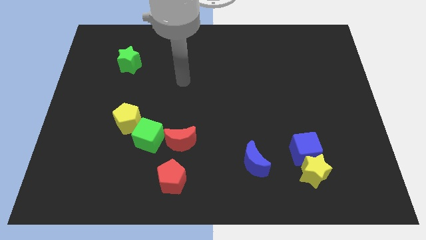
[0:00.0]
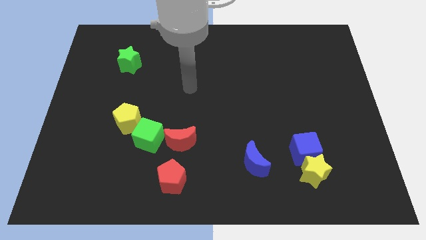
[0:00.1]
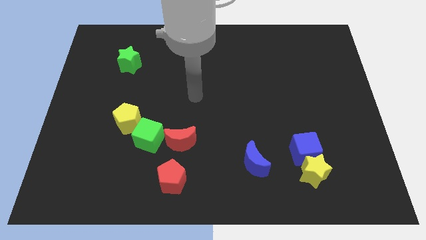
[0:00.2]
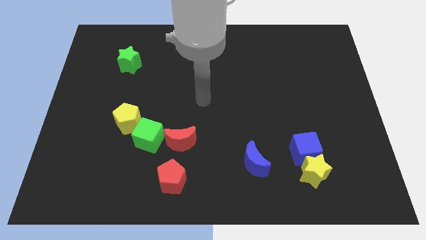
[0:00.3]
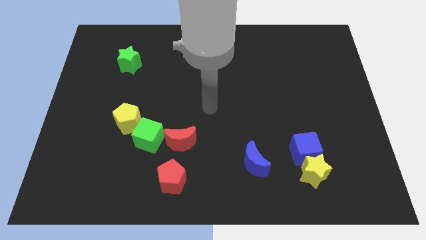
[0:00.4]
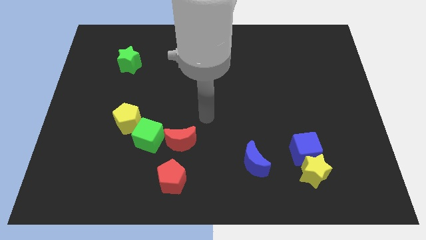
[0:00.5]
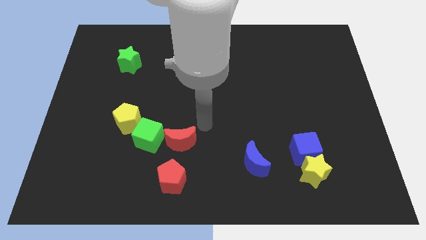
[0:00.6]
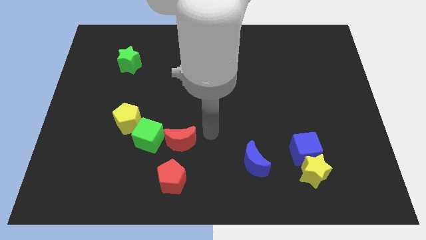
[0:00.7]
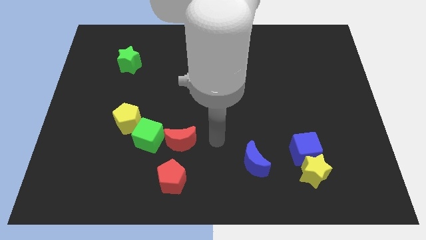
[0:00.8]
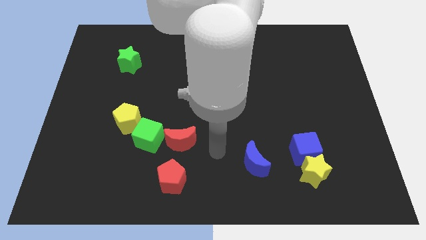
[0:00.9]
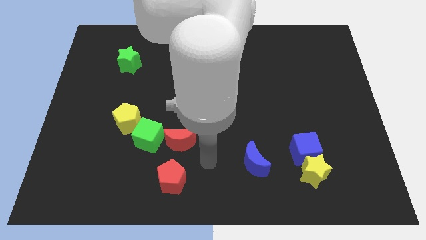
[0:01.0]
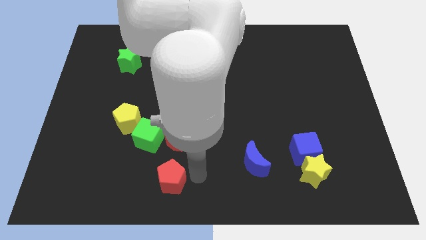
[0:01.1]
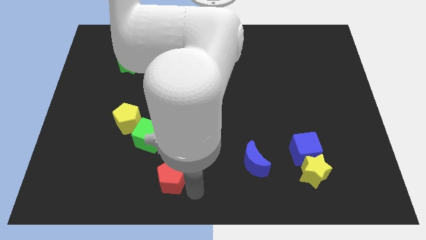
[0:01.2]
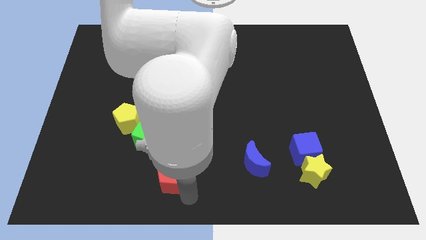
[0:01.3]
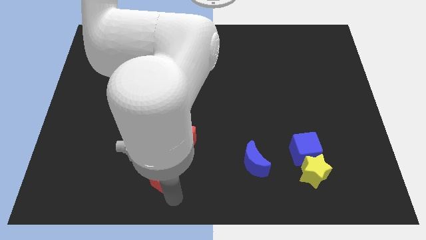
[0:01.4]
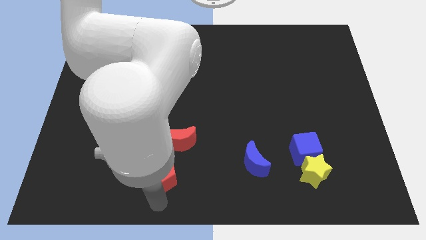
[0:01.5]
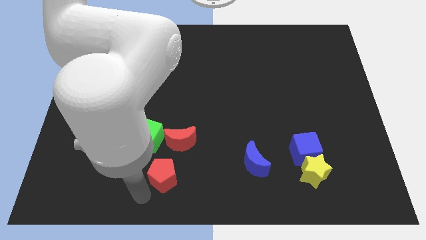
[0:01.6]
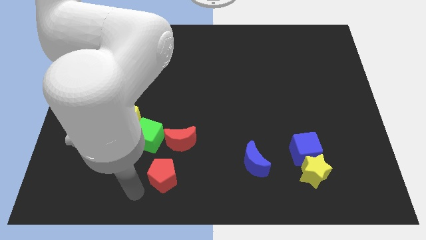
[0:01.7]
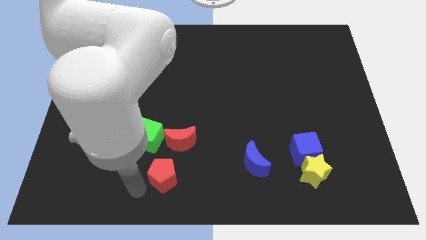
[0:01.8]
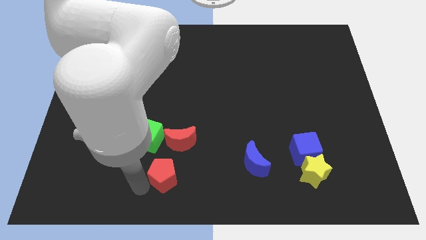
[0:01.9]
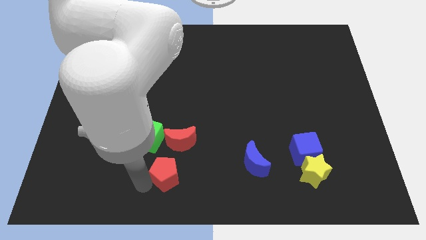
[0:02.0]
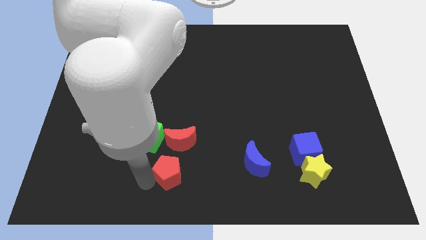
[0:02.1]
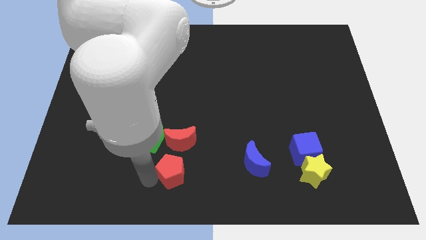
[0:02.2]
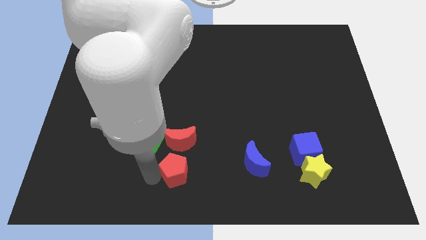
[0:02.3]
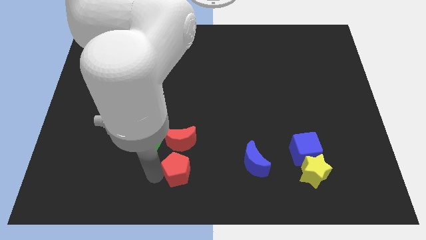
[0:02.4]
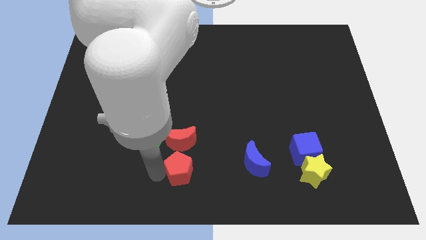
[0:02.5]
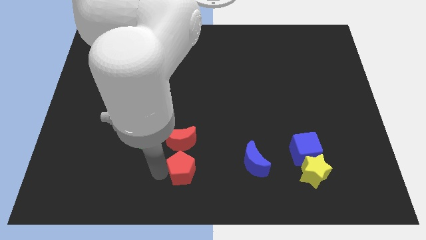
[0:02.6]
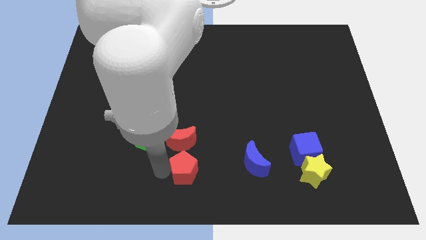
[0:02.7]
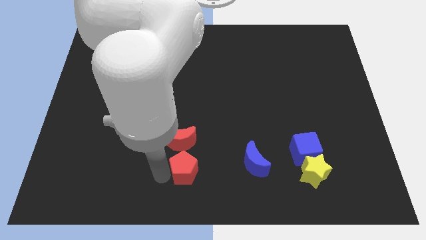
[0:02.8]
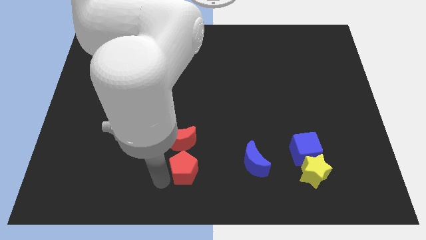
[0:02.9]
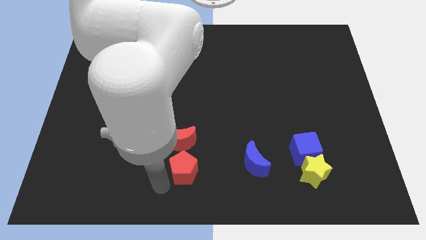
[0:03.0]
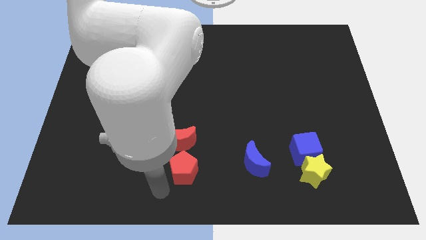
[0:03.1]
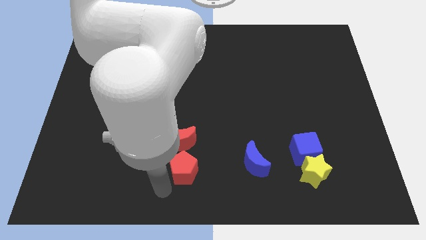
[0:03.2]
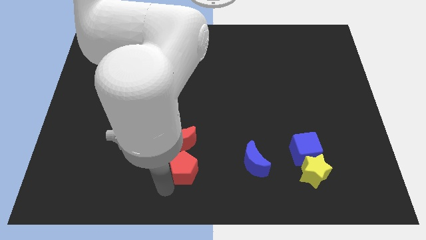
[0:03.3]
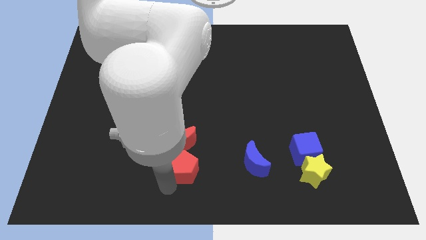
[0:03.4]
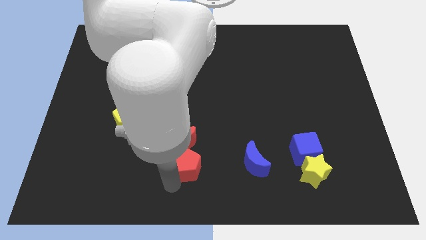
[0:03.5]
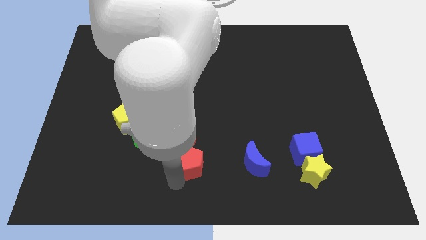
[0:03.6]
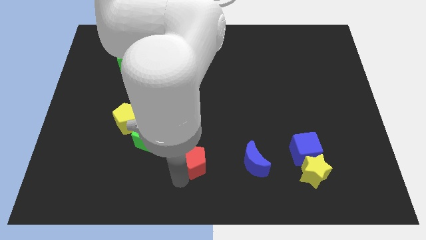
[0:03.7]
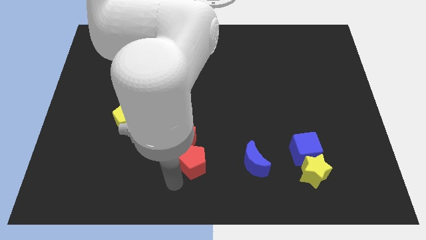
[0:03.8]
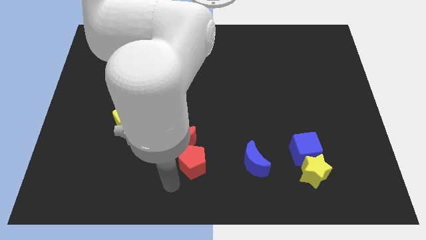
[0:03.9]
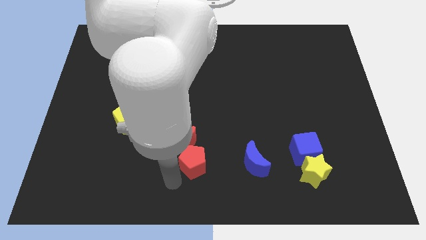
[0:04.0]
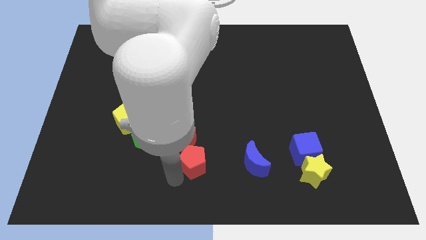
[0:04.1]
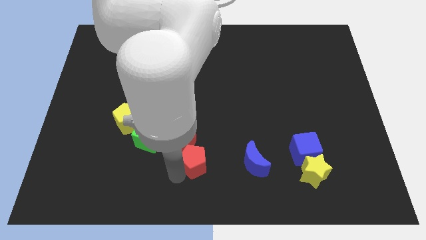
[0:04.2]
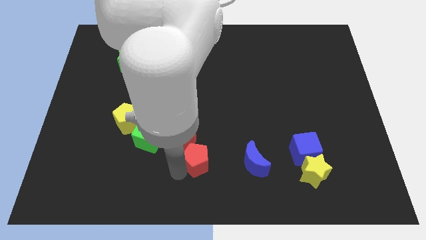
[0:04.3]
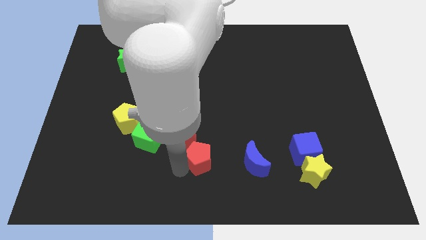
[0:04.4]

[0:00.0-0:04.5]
move the red pentagon up and to the right diagonally a bit

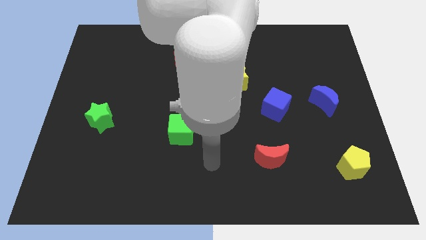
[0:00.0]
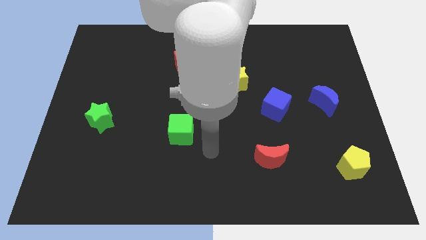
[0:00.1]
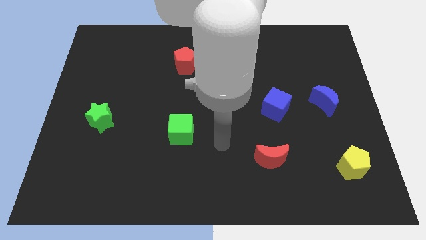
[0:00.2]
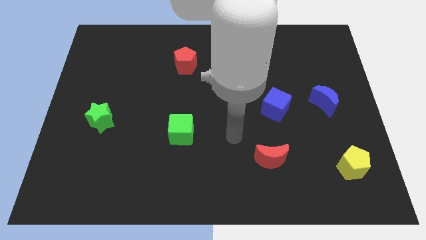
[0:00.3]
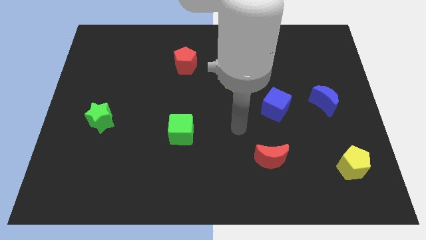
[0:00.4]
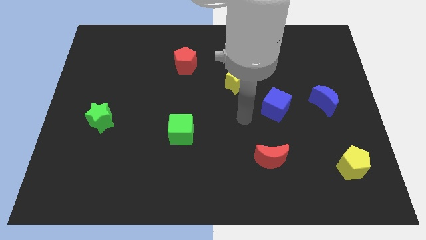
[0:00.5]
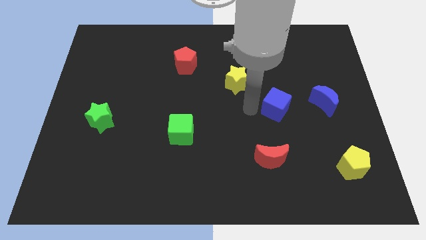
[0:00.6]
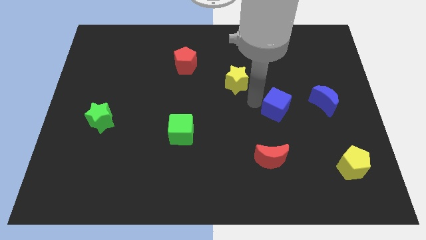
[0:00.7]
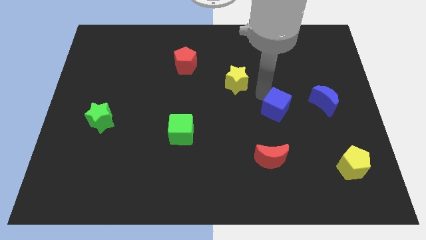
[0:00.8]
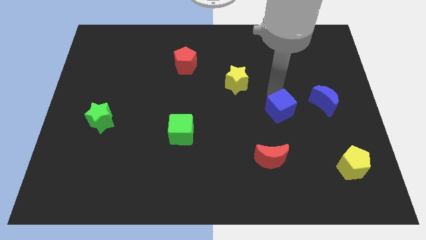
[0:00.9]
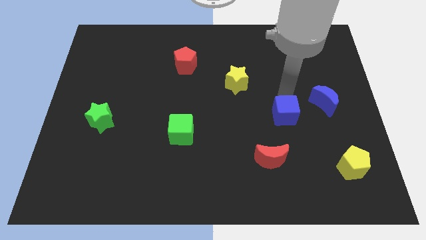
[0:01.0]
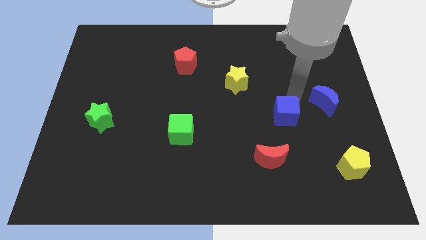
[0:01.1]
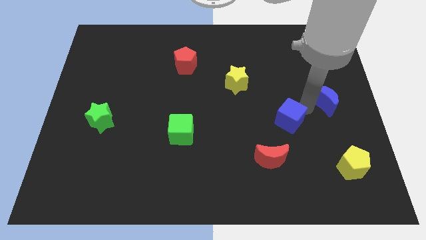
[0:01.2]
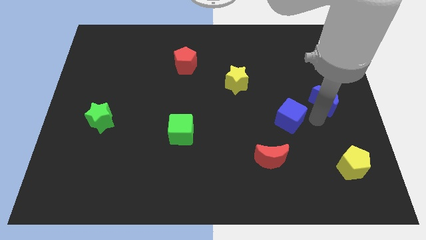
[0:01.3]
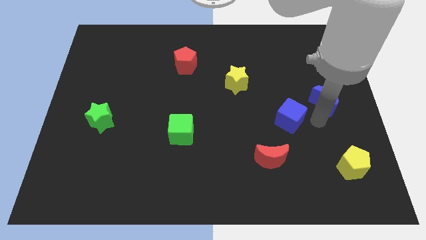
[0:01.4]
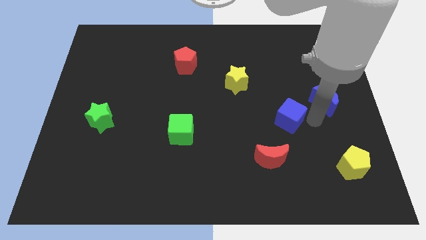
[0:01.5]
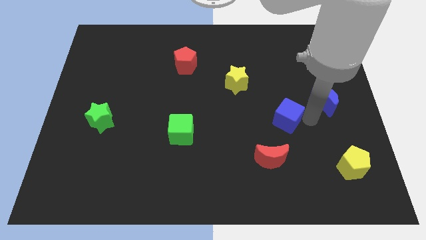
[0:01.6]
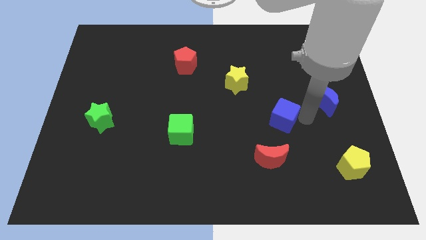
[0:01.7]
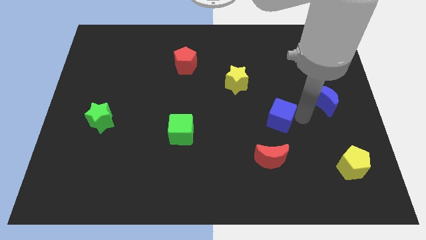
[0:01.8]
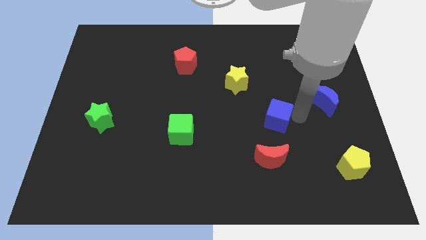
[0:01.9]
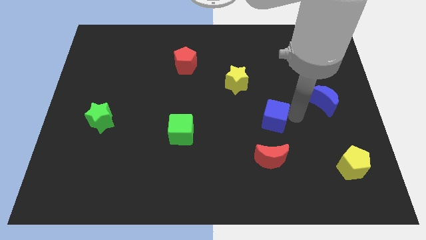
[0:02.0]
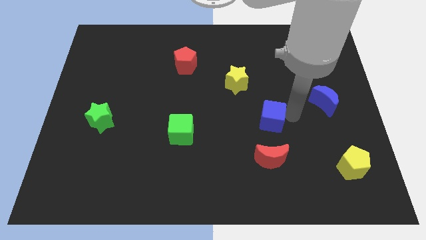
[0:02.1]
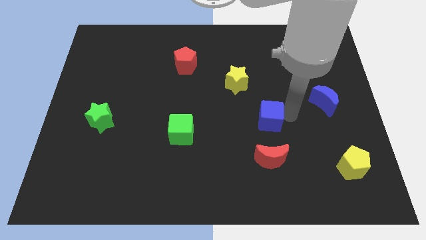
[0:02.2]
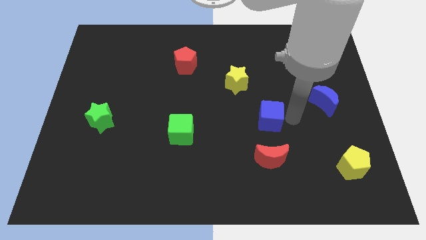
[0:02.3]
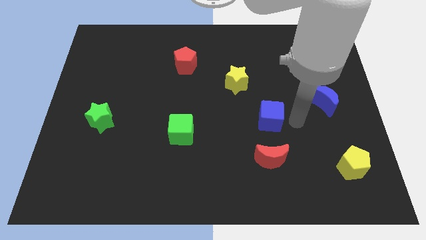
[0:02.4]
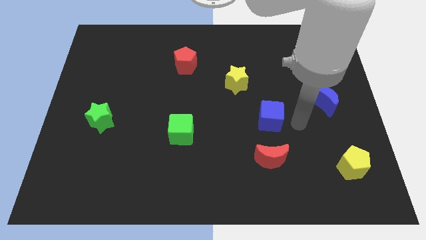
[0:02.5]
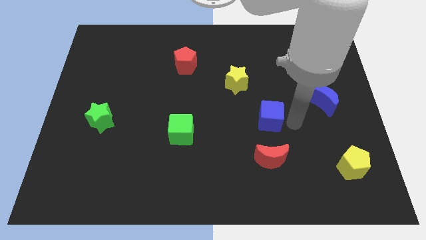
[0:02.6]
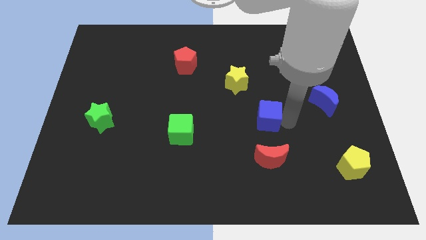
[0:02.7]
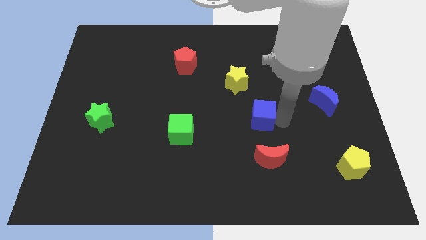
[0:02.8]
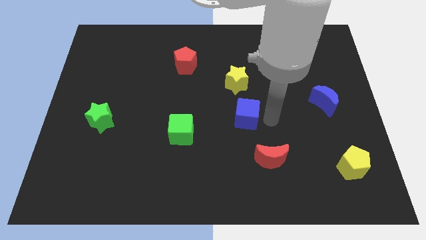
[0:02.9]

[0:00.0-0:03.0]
push the blue cube a bit left

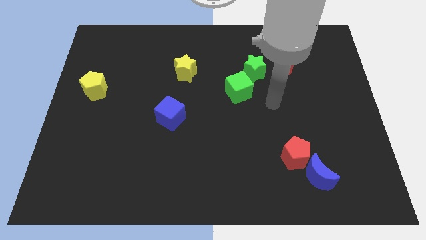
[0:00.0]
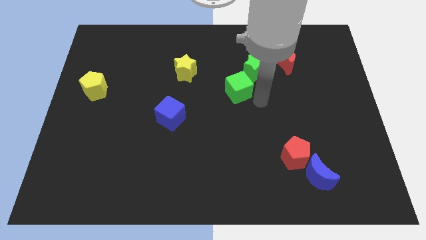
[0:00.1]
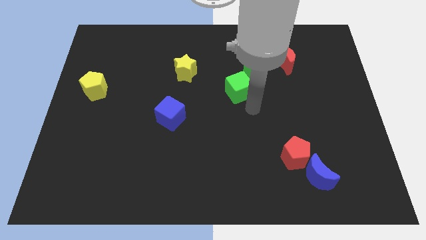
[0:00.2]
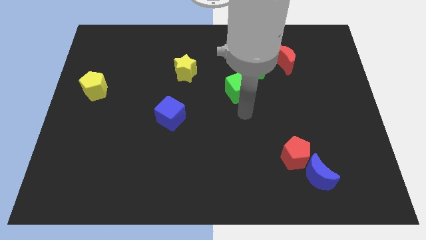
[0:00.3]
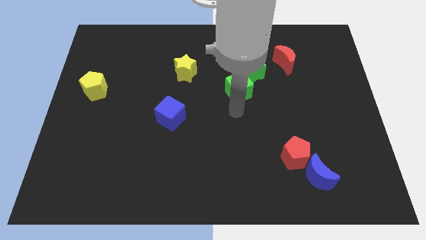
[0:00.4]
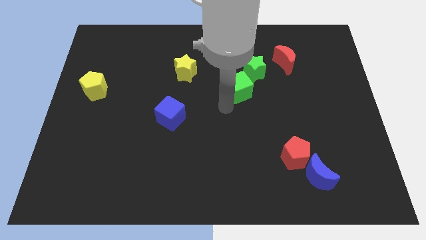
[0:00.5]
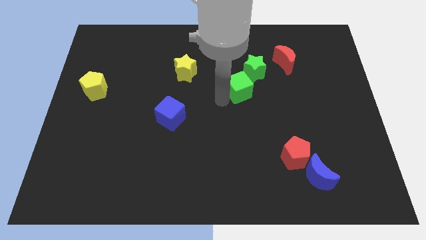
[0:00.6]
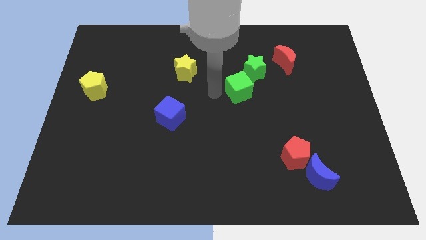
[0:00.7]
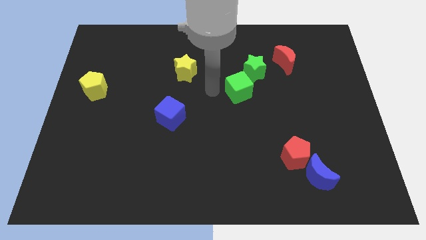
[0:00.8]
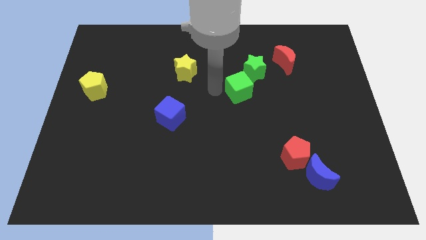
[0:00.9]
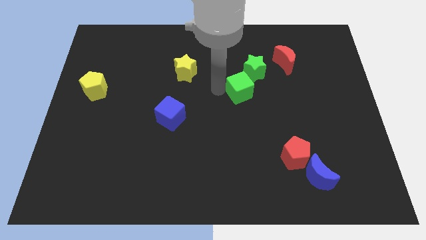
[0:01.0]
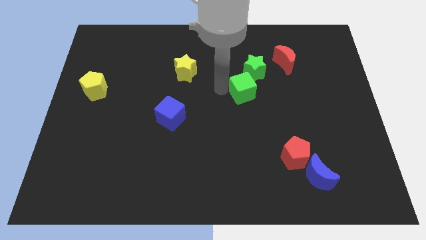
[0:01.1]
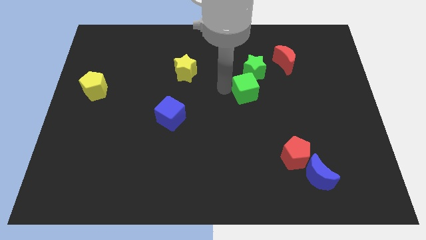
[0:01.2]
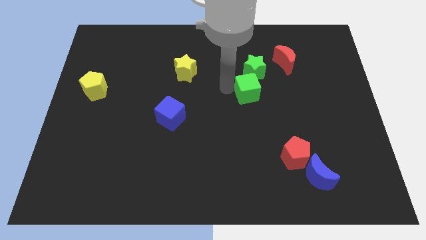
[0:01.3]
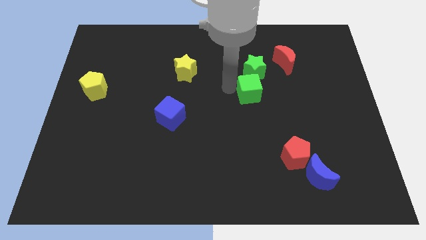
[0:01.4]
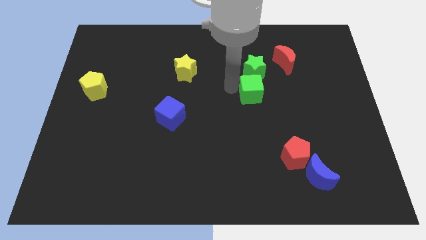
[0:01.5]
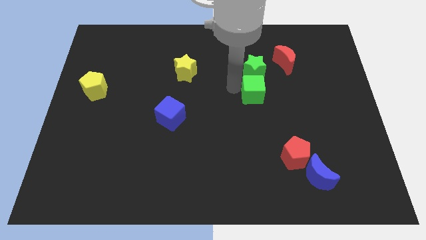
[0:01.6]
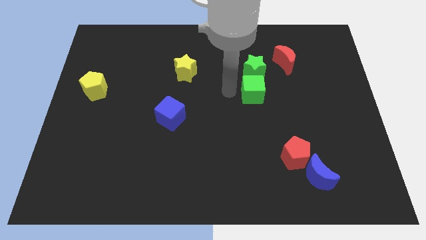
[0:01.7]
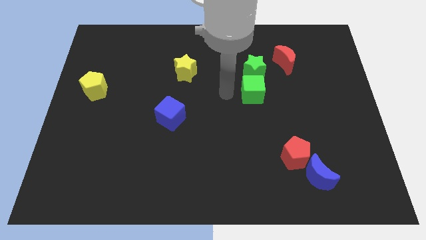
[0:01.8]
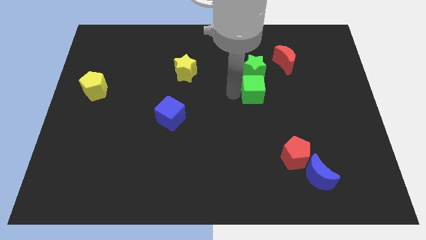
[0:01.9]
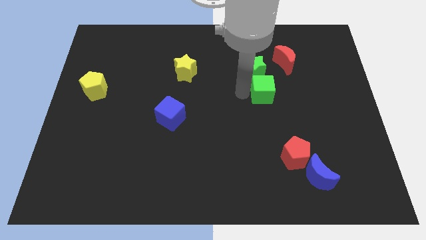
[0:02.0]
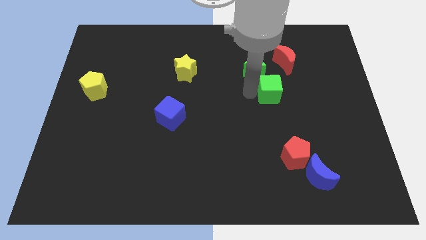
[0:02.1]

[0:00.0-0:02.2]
push the green cube somewhat right
